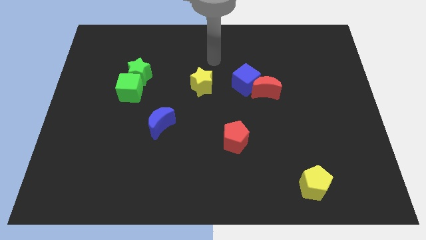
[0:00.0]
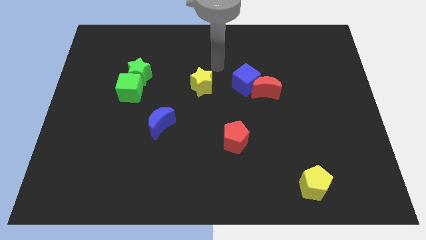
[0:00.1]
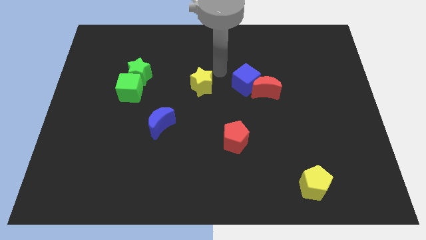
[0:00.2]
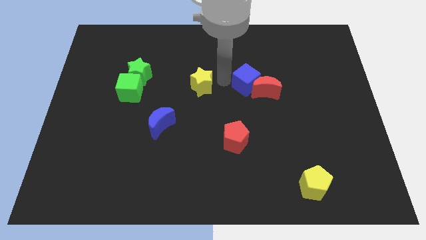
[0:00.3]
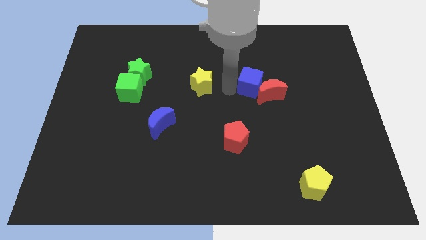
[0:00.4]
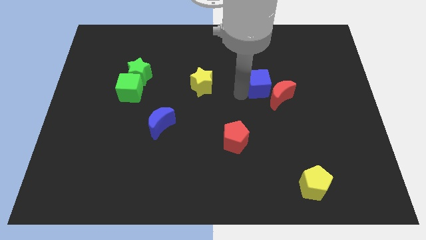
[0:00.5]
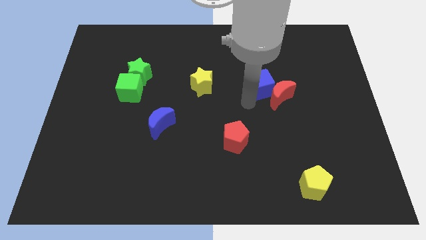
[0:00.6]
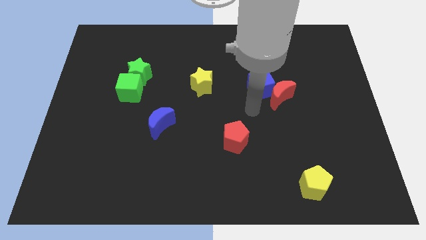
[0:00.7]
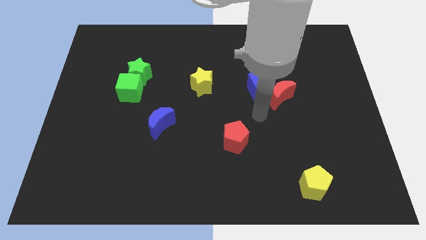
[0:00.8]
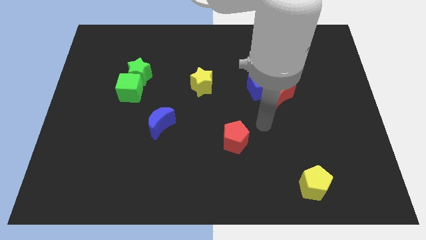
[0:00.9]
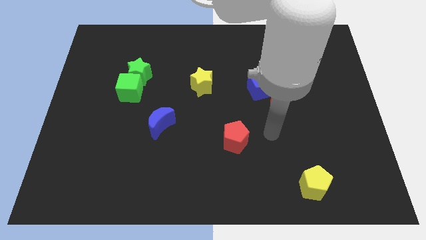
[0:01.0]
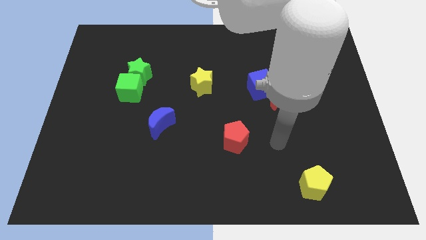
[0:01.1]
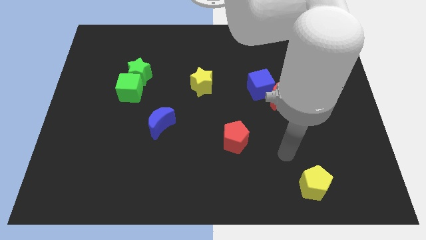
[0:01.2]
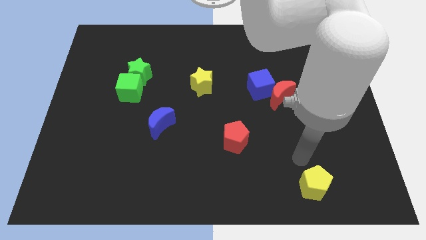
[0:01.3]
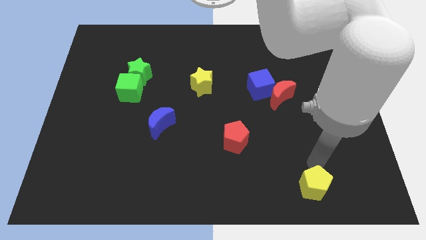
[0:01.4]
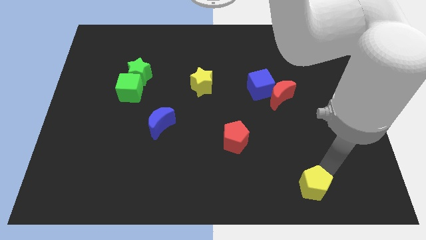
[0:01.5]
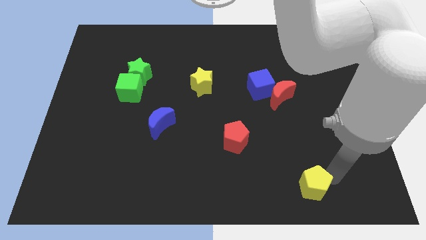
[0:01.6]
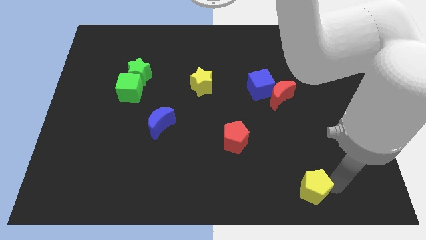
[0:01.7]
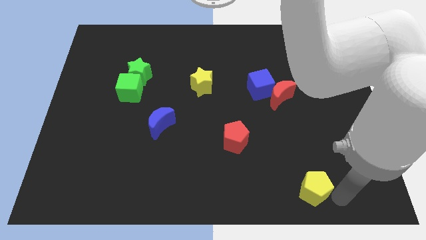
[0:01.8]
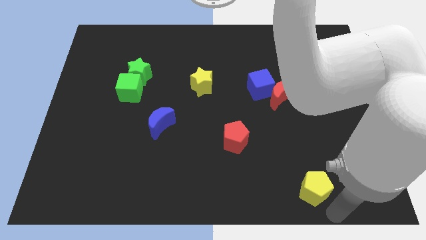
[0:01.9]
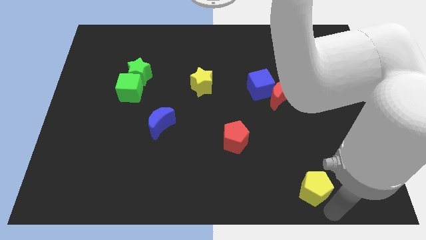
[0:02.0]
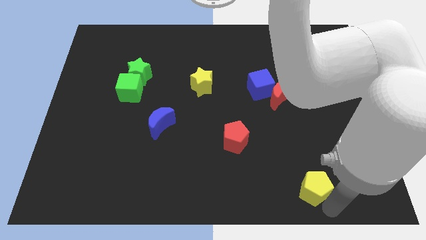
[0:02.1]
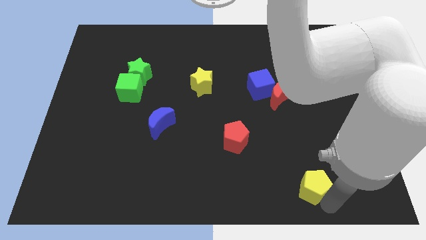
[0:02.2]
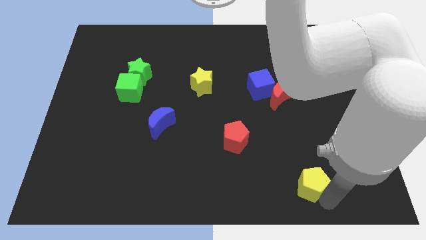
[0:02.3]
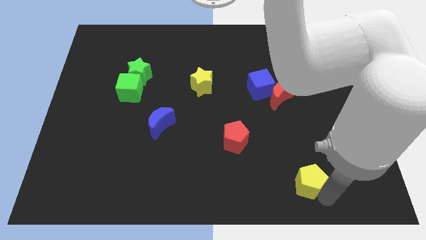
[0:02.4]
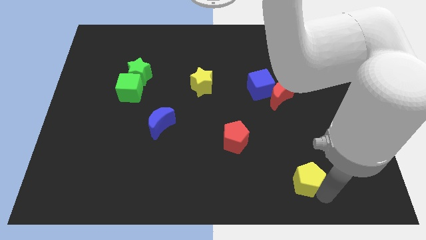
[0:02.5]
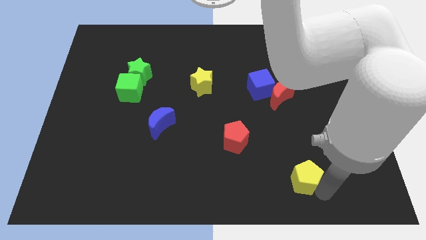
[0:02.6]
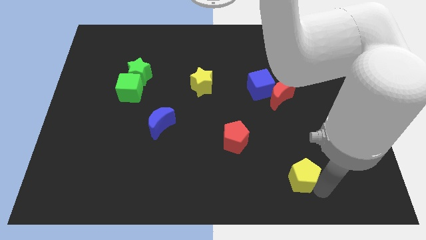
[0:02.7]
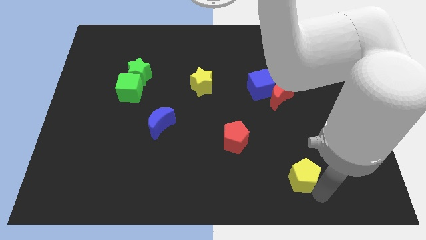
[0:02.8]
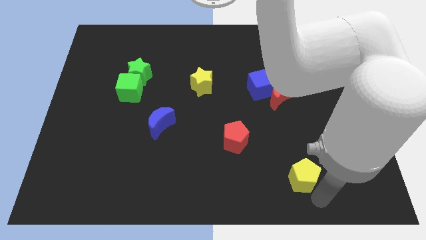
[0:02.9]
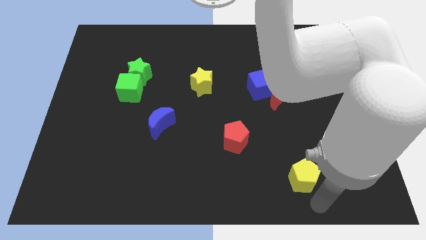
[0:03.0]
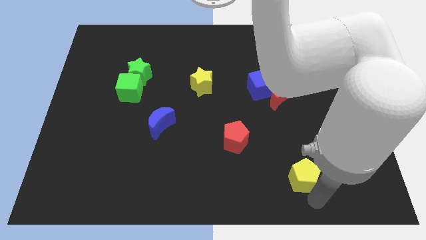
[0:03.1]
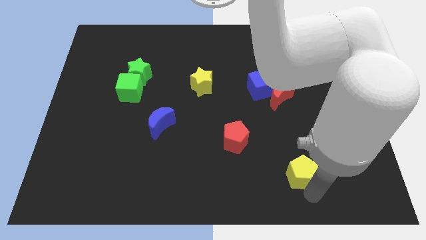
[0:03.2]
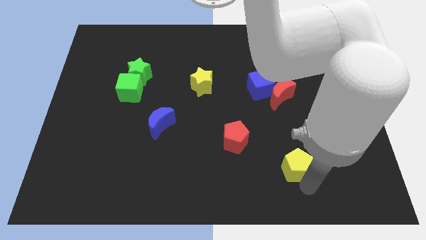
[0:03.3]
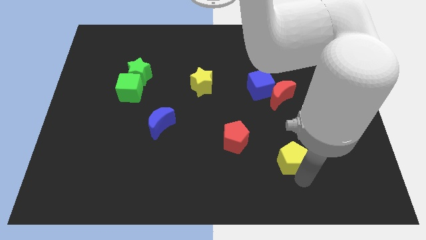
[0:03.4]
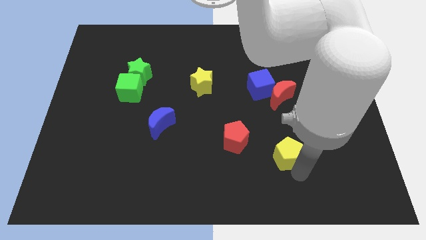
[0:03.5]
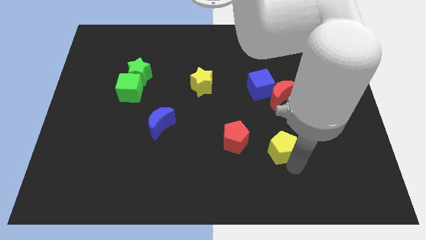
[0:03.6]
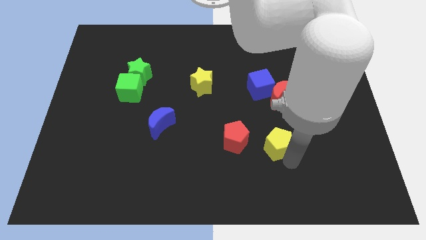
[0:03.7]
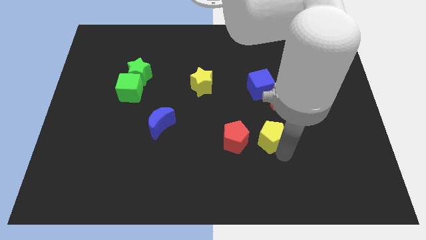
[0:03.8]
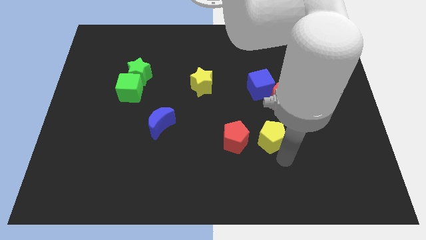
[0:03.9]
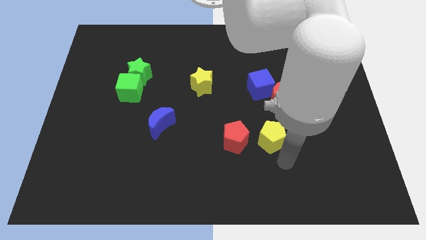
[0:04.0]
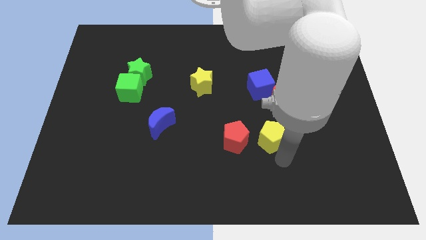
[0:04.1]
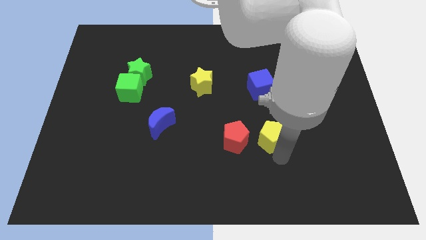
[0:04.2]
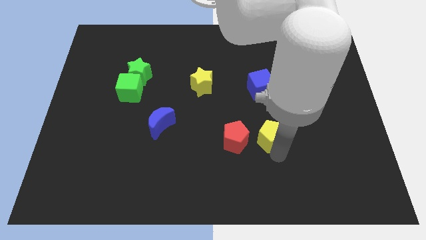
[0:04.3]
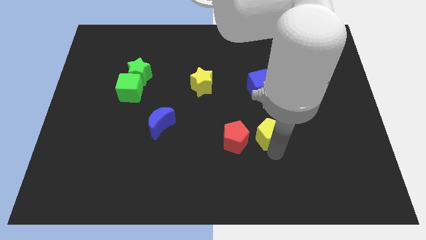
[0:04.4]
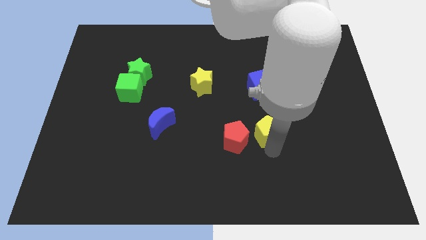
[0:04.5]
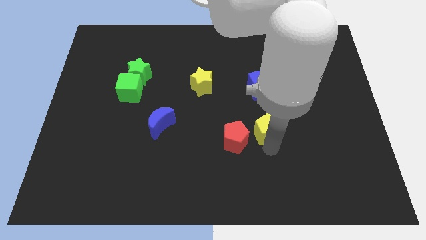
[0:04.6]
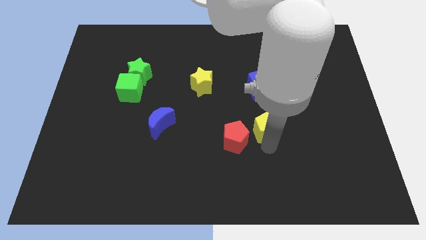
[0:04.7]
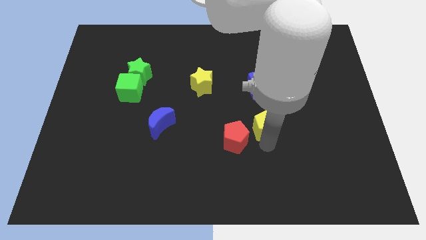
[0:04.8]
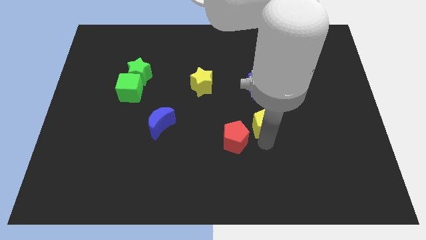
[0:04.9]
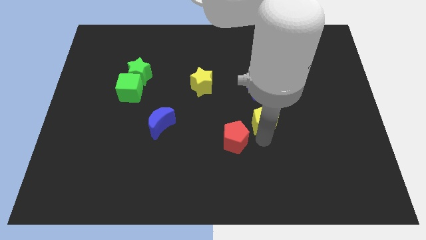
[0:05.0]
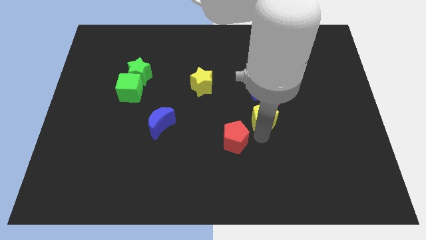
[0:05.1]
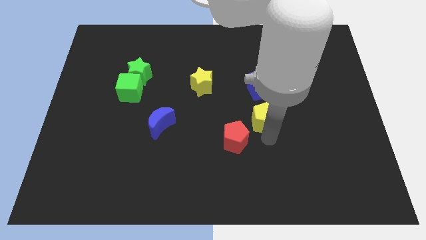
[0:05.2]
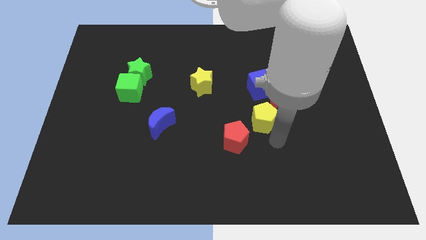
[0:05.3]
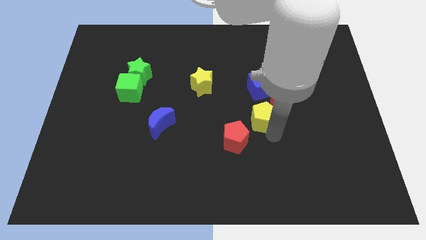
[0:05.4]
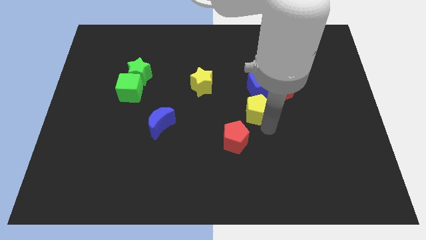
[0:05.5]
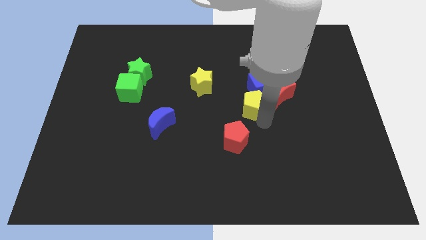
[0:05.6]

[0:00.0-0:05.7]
put the yellow pentagon to the blue cube

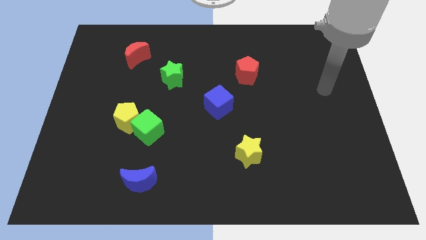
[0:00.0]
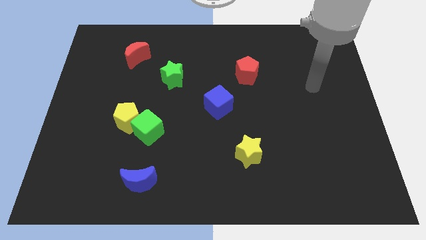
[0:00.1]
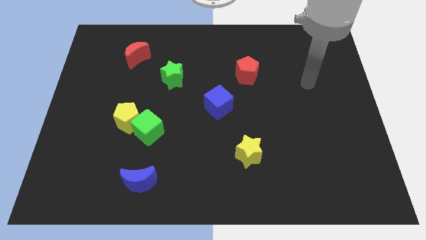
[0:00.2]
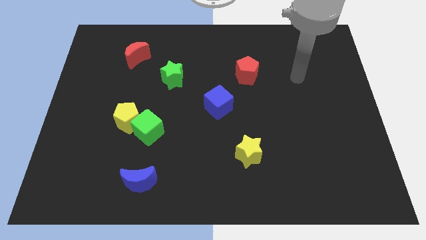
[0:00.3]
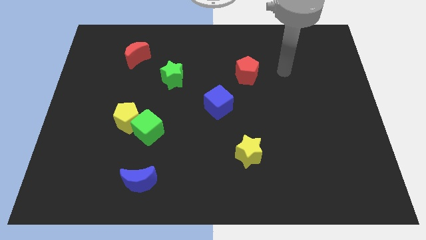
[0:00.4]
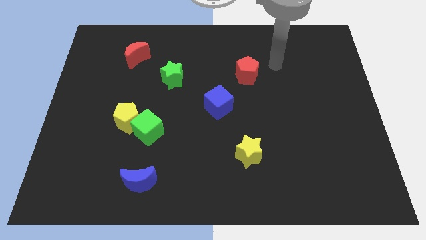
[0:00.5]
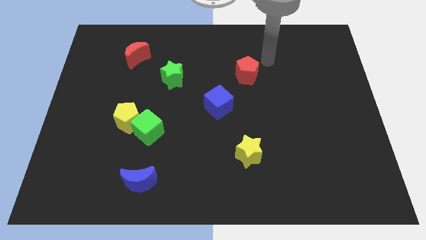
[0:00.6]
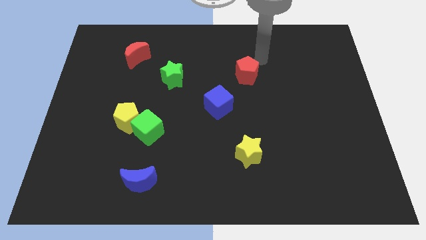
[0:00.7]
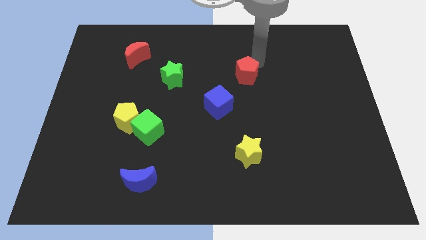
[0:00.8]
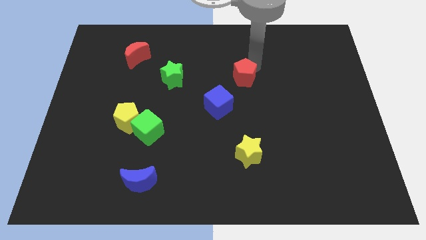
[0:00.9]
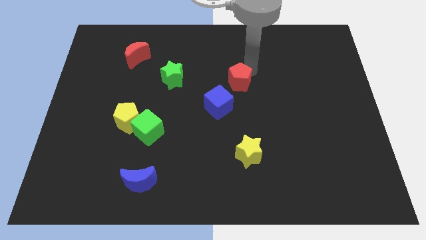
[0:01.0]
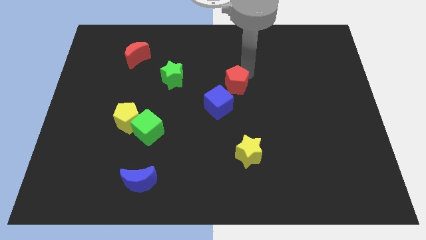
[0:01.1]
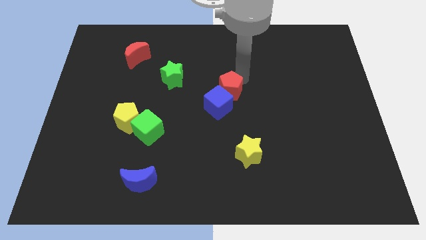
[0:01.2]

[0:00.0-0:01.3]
put the red pentagon towards the blue cube

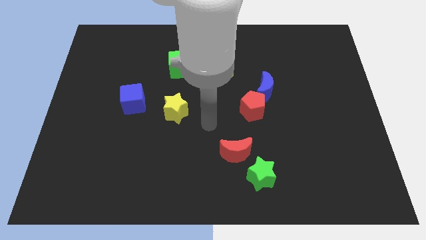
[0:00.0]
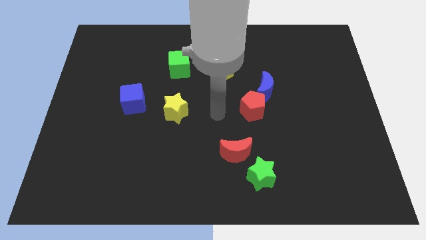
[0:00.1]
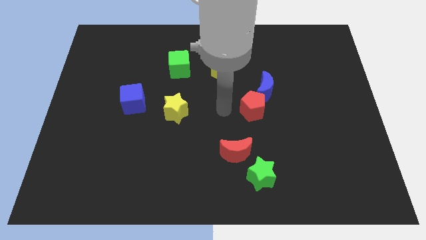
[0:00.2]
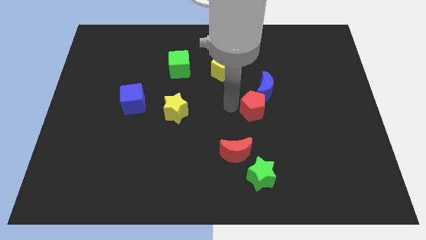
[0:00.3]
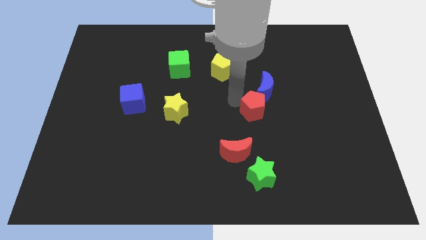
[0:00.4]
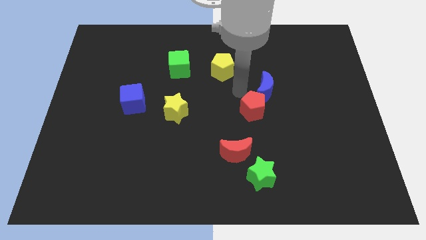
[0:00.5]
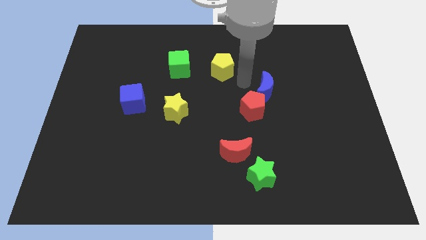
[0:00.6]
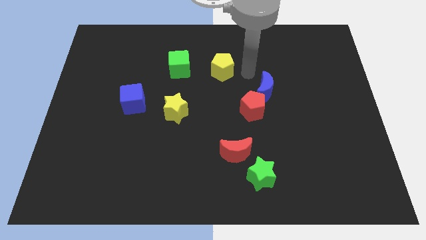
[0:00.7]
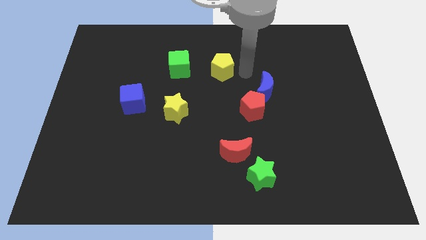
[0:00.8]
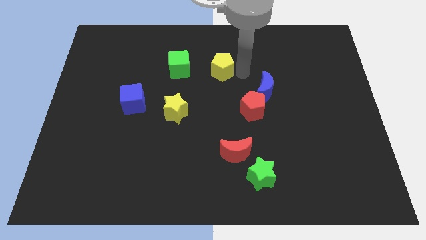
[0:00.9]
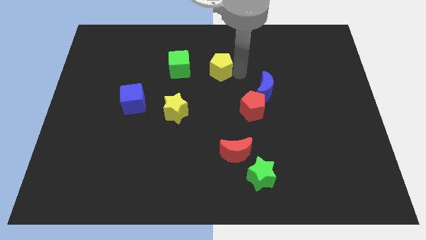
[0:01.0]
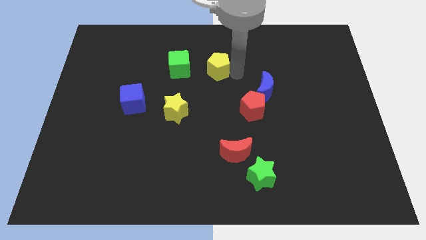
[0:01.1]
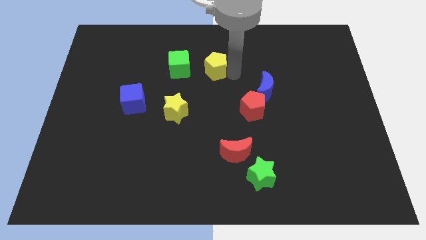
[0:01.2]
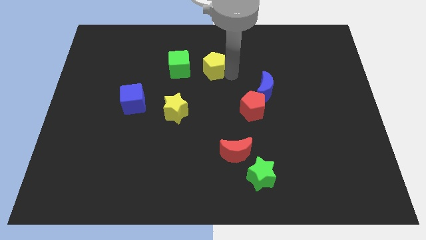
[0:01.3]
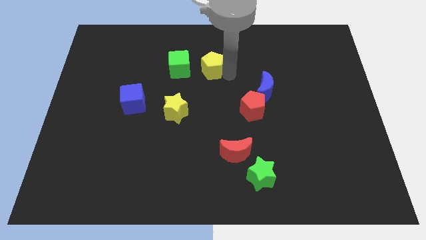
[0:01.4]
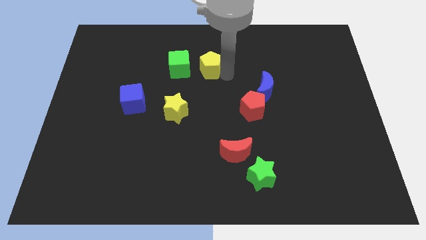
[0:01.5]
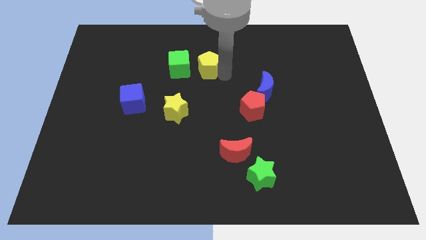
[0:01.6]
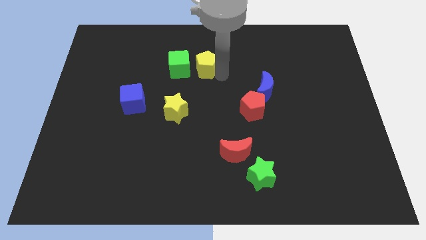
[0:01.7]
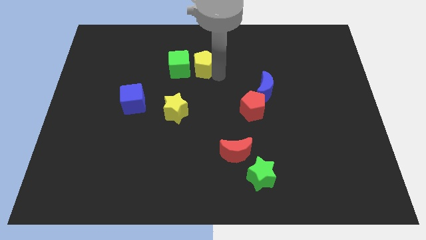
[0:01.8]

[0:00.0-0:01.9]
put the yellow pentagon towards the green cube
